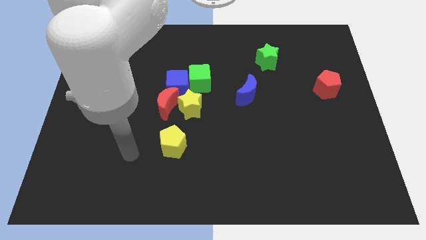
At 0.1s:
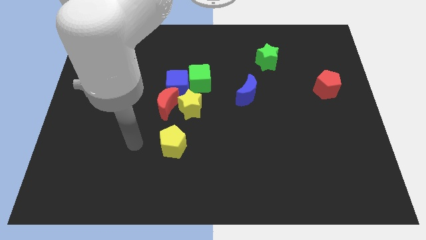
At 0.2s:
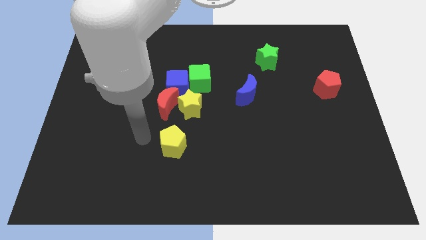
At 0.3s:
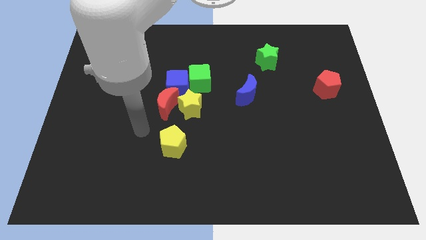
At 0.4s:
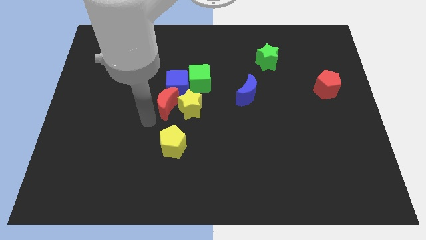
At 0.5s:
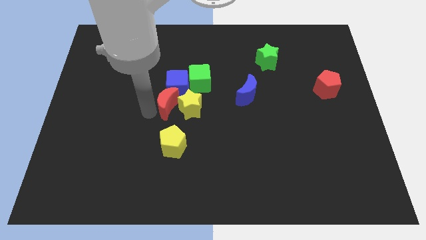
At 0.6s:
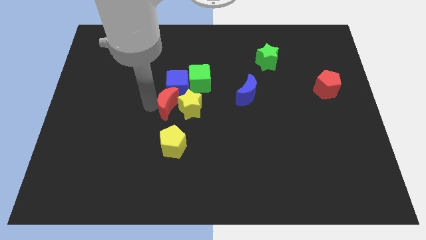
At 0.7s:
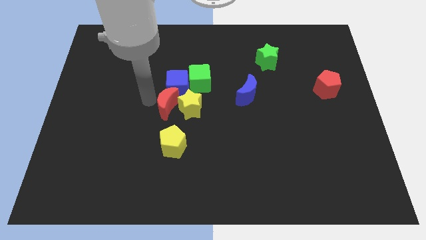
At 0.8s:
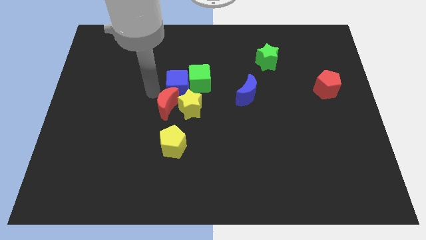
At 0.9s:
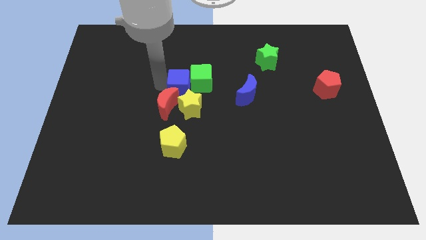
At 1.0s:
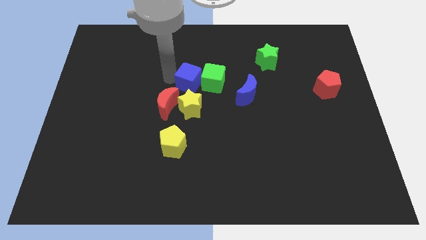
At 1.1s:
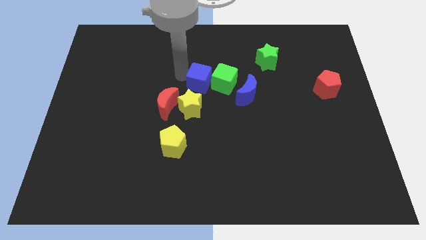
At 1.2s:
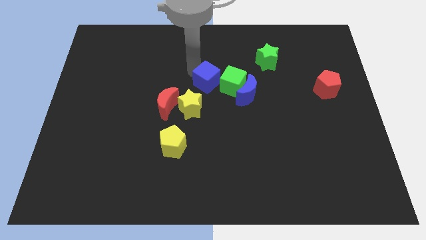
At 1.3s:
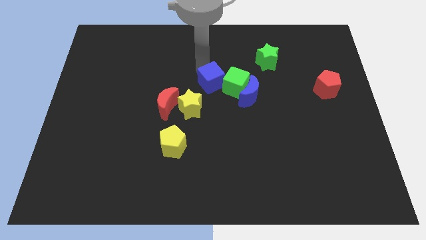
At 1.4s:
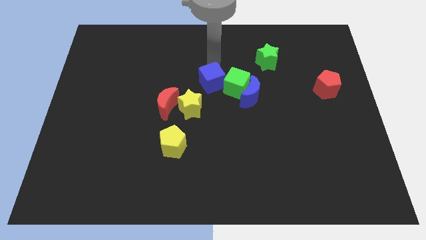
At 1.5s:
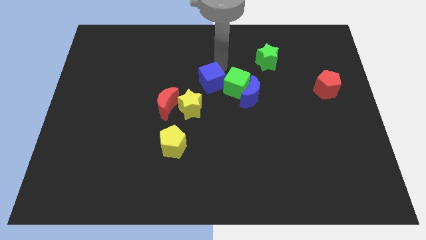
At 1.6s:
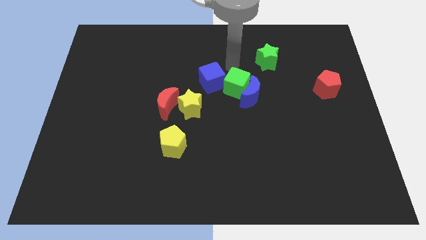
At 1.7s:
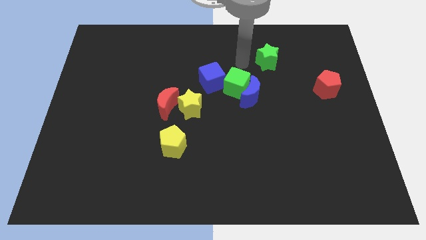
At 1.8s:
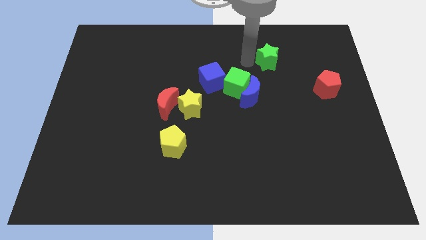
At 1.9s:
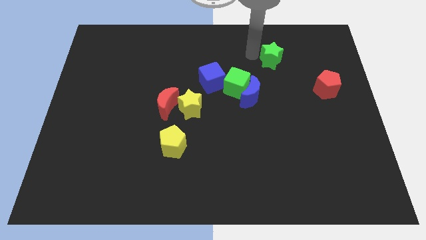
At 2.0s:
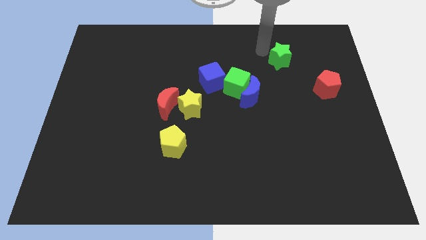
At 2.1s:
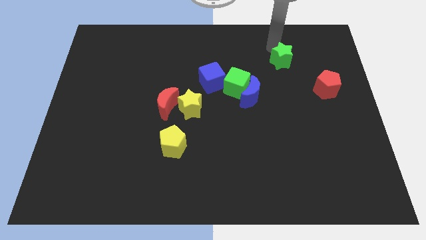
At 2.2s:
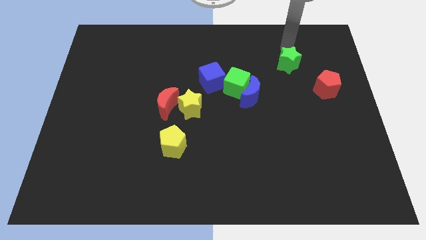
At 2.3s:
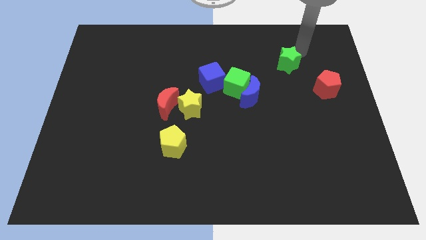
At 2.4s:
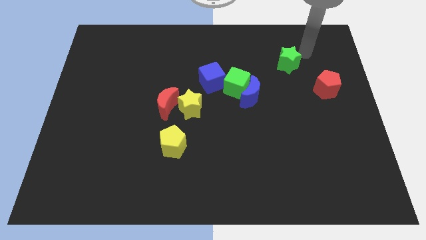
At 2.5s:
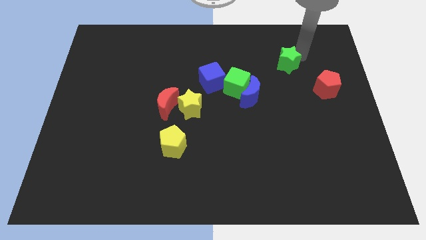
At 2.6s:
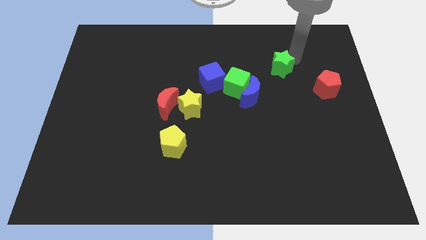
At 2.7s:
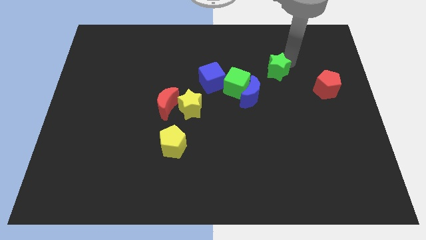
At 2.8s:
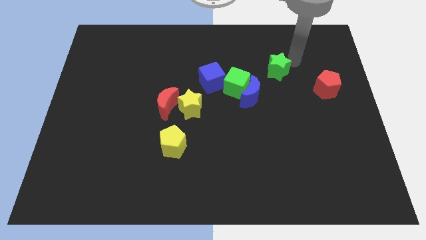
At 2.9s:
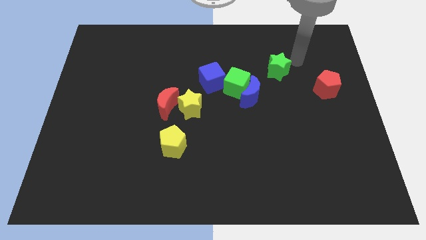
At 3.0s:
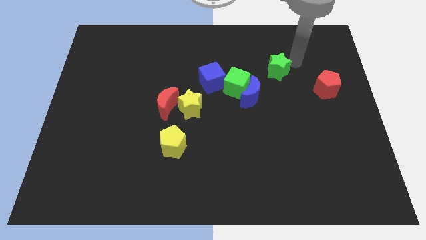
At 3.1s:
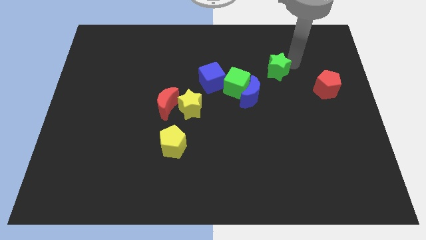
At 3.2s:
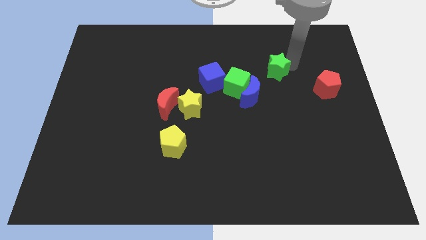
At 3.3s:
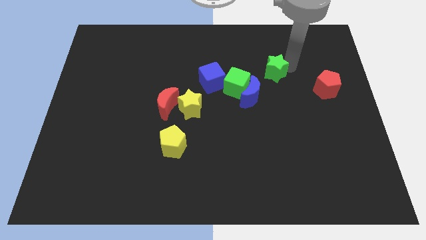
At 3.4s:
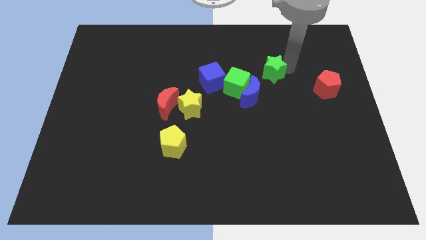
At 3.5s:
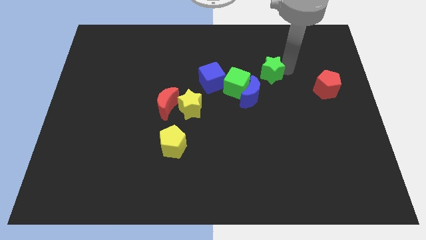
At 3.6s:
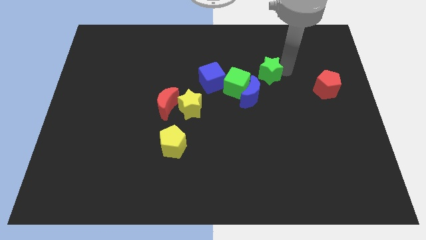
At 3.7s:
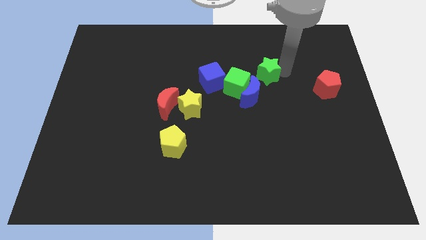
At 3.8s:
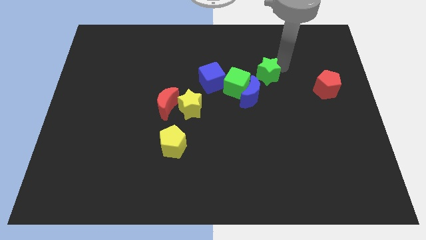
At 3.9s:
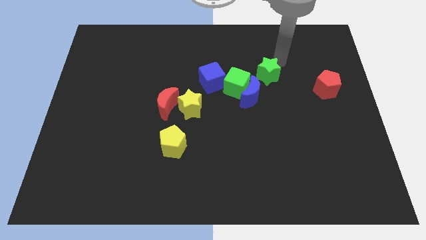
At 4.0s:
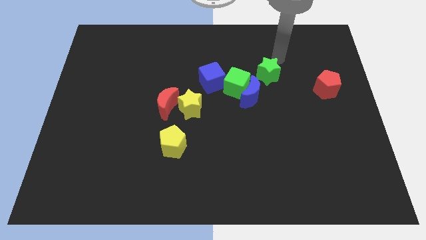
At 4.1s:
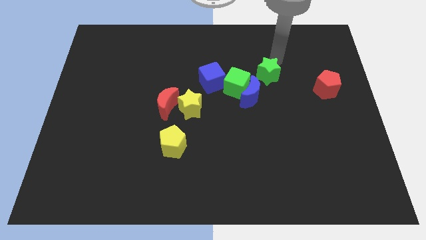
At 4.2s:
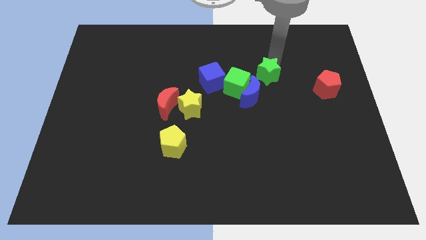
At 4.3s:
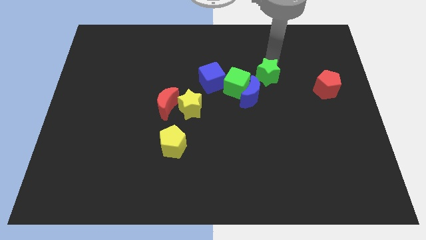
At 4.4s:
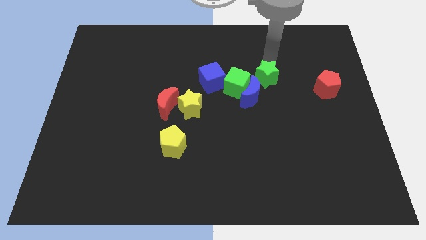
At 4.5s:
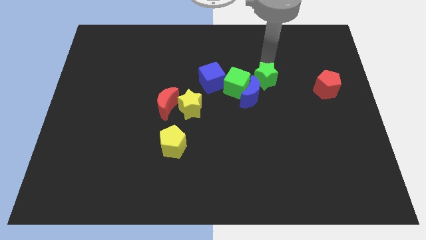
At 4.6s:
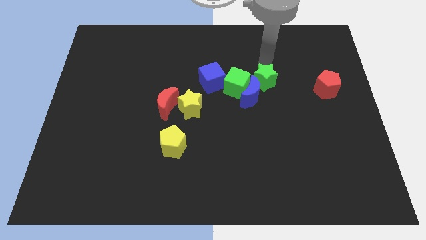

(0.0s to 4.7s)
slide the green star next to the blue moon

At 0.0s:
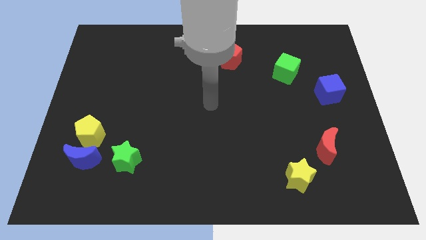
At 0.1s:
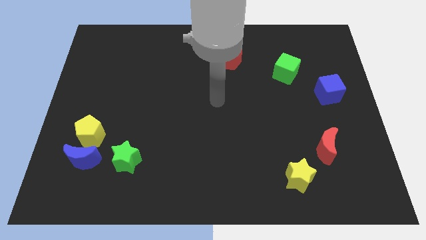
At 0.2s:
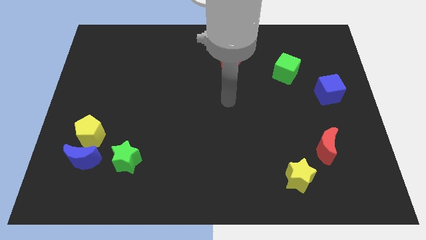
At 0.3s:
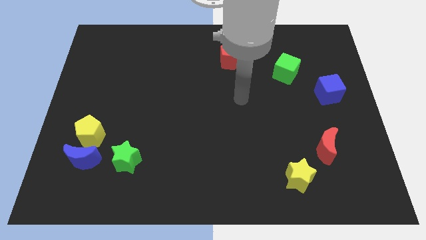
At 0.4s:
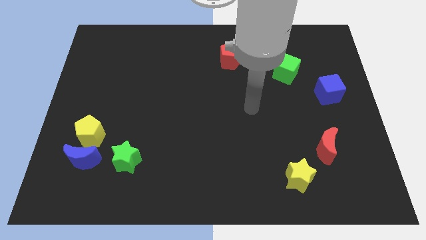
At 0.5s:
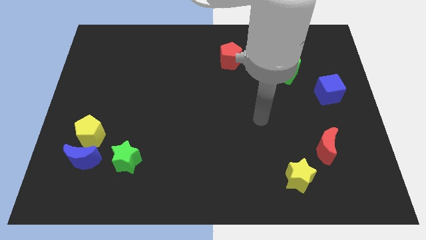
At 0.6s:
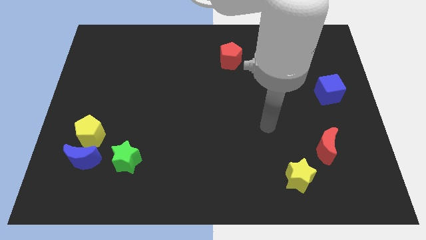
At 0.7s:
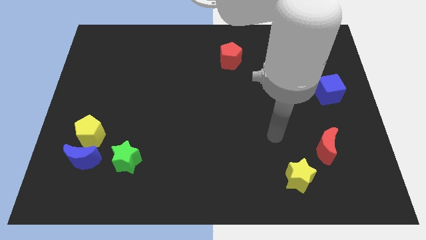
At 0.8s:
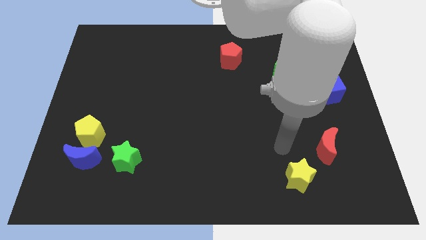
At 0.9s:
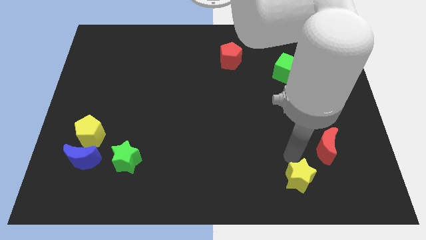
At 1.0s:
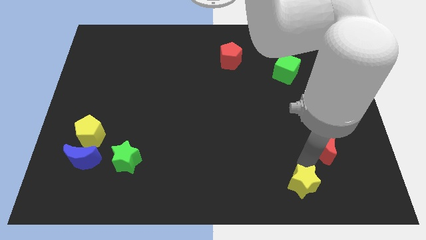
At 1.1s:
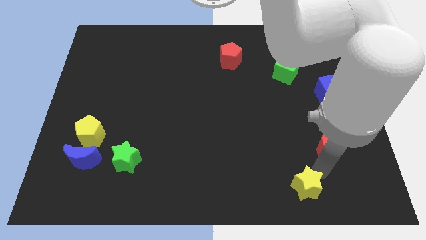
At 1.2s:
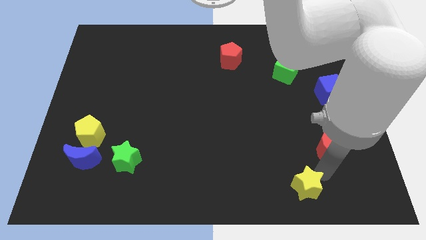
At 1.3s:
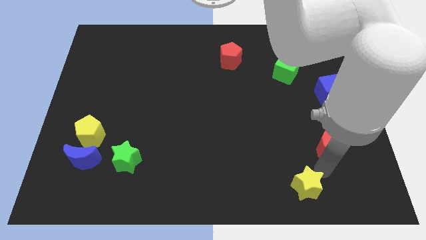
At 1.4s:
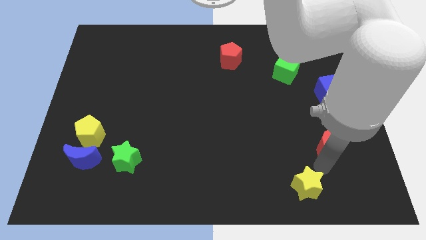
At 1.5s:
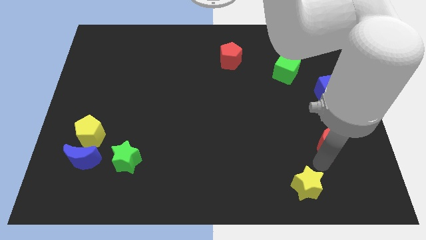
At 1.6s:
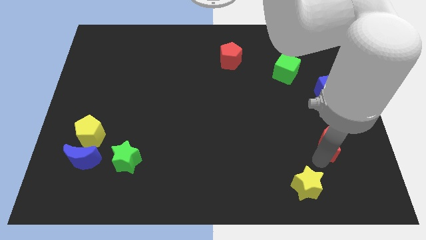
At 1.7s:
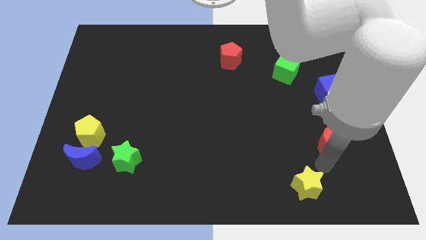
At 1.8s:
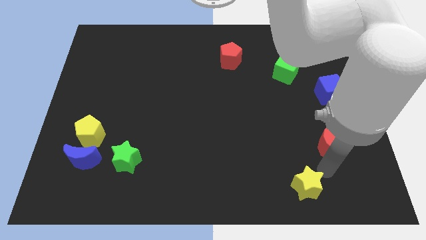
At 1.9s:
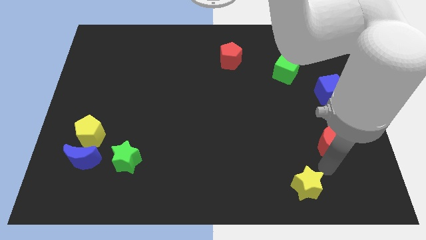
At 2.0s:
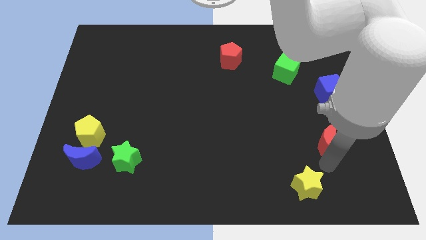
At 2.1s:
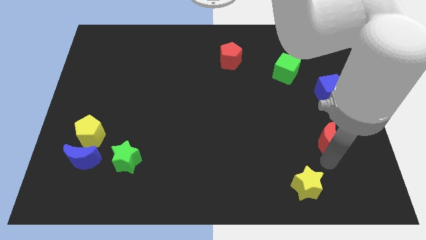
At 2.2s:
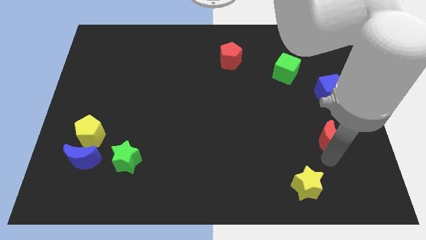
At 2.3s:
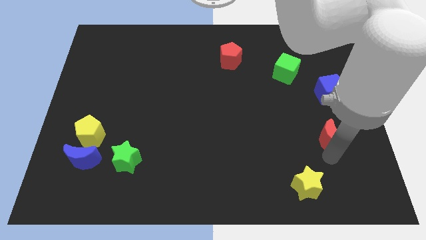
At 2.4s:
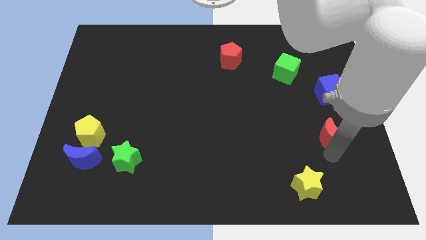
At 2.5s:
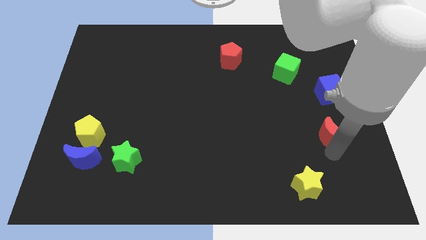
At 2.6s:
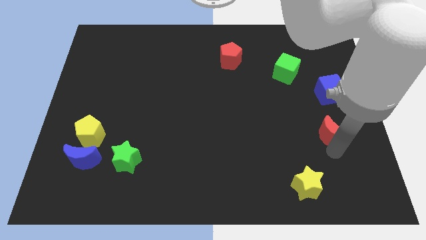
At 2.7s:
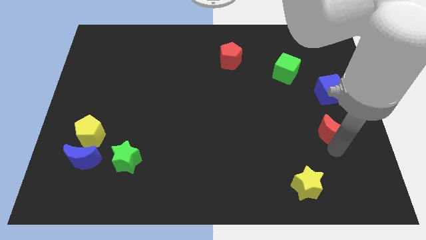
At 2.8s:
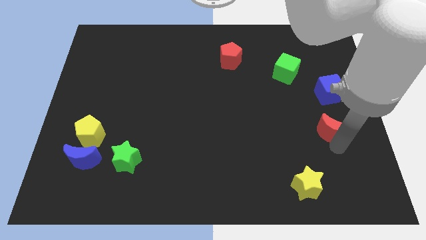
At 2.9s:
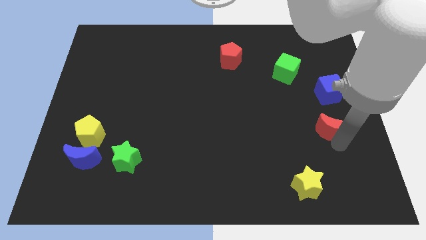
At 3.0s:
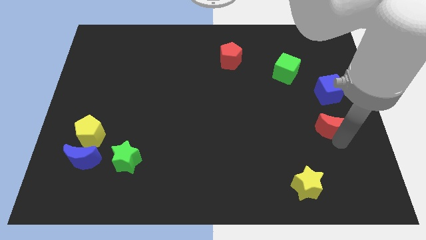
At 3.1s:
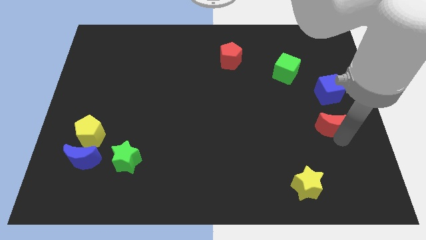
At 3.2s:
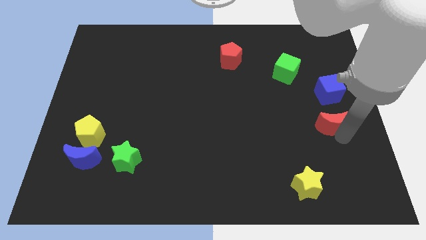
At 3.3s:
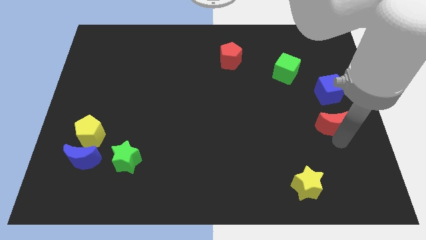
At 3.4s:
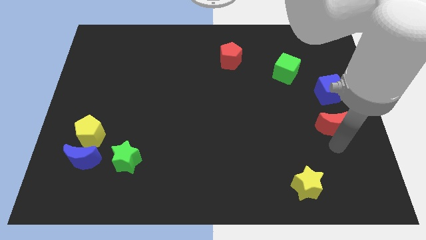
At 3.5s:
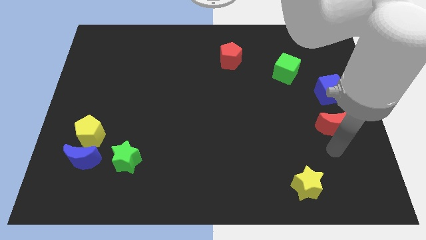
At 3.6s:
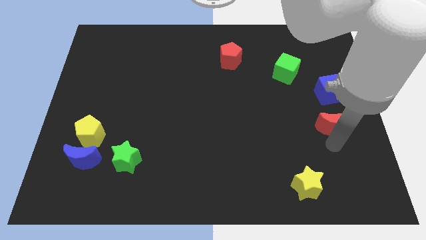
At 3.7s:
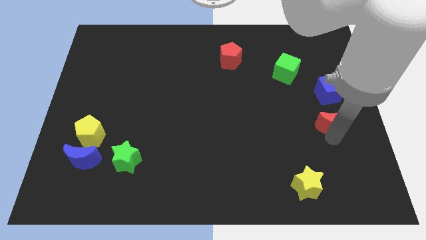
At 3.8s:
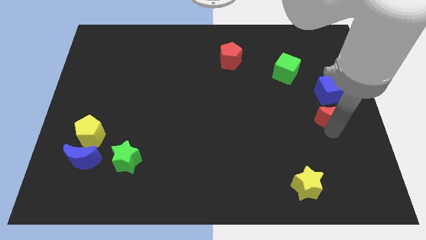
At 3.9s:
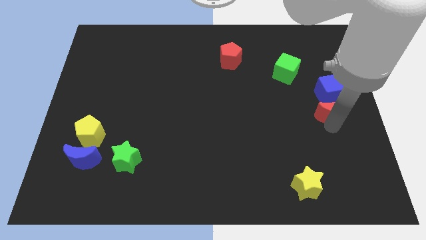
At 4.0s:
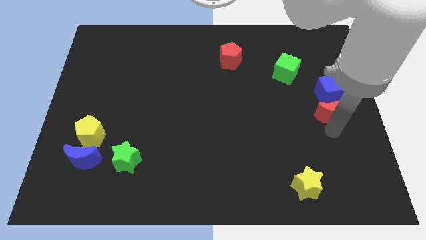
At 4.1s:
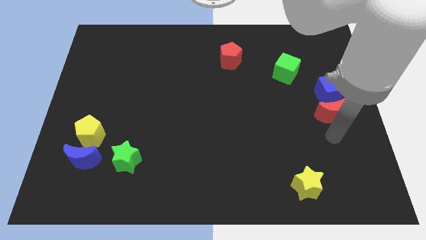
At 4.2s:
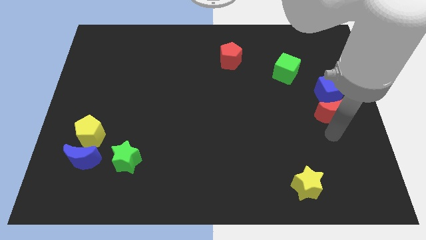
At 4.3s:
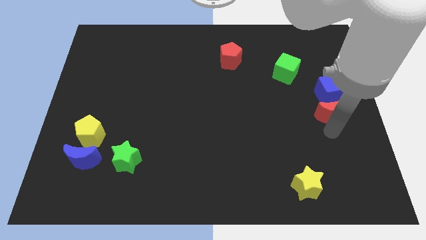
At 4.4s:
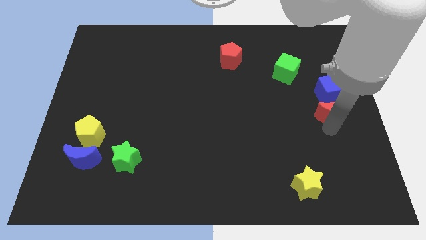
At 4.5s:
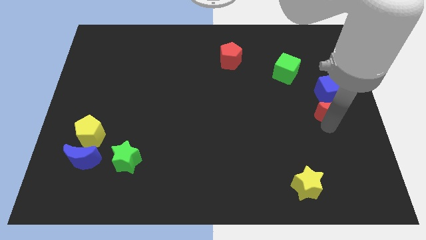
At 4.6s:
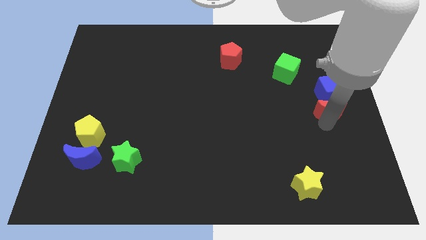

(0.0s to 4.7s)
slide the red moon to the blue cube
